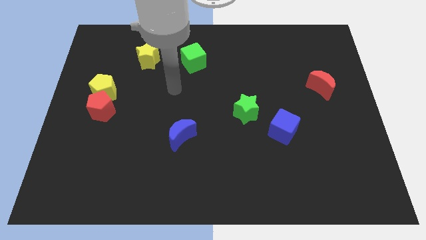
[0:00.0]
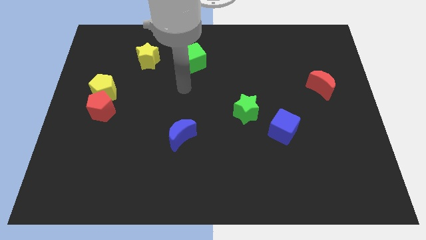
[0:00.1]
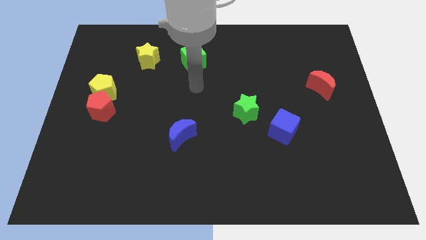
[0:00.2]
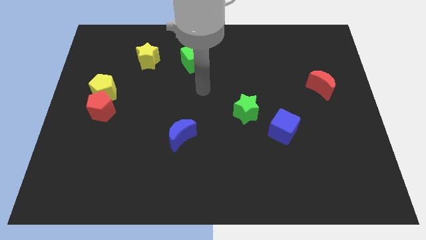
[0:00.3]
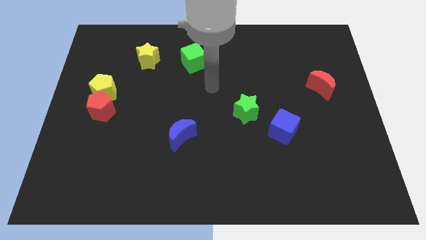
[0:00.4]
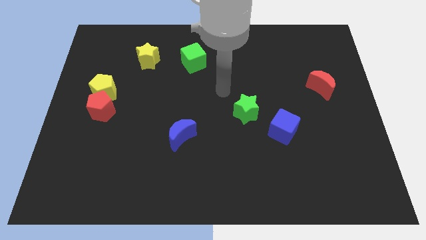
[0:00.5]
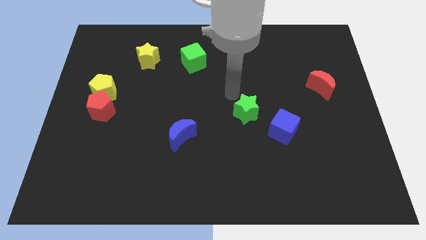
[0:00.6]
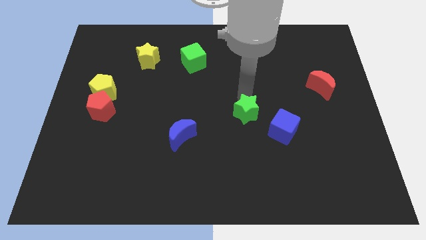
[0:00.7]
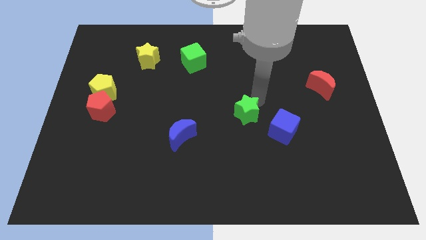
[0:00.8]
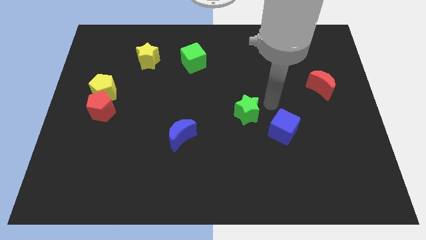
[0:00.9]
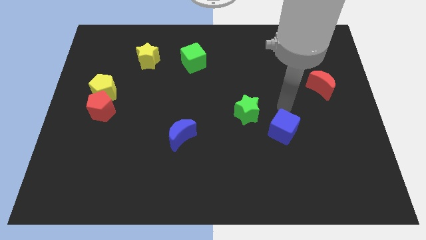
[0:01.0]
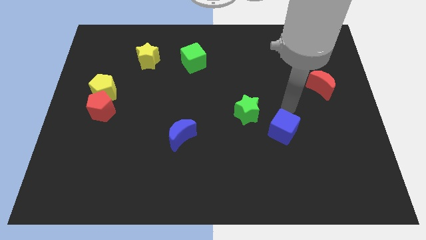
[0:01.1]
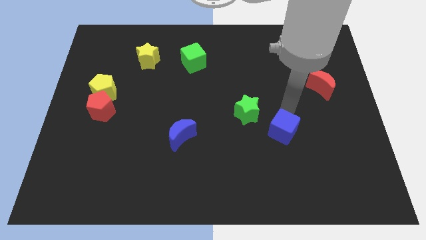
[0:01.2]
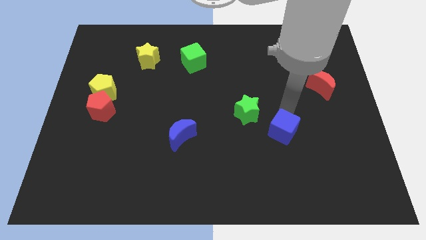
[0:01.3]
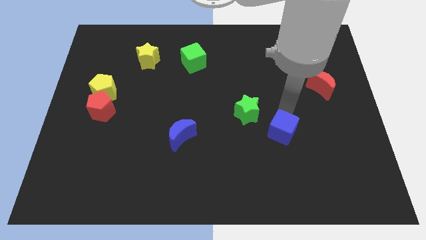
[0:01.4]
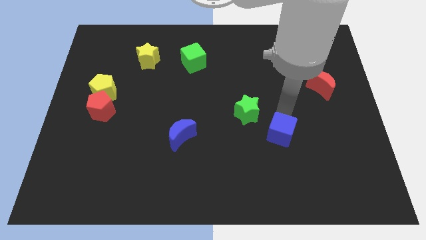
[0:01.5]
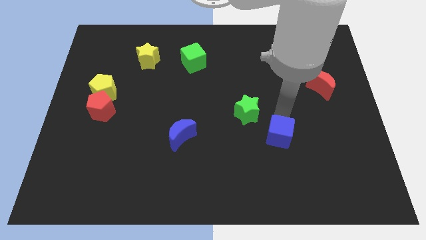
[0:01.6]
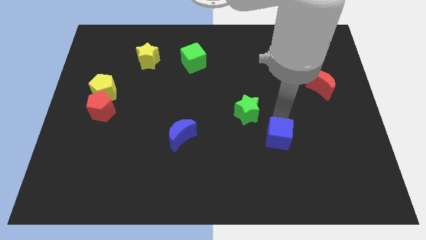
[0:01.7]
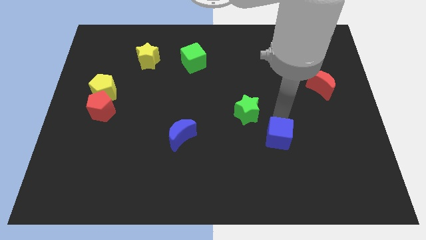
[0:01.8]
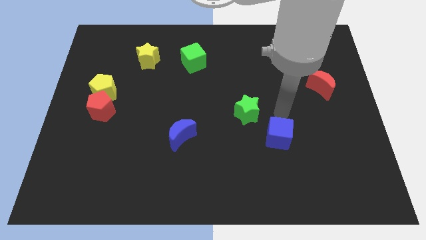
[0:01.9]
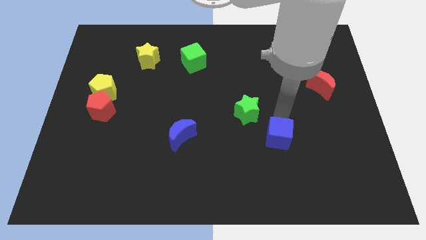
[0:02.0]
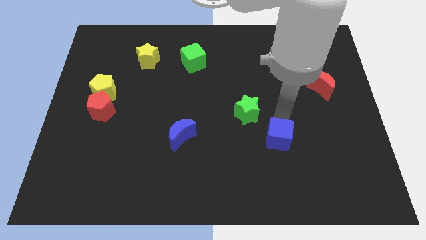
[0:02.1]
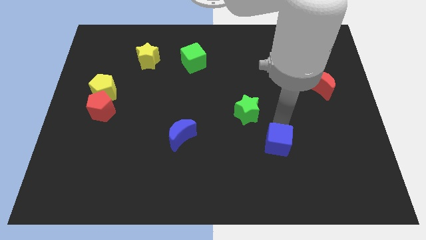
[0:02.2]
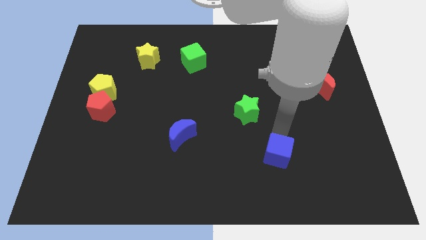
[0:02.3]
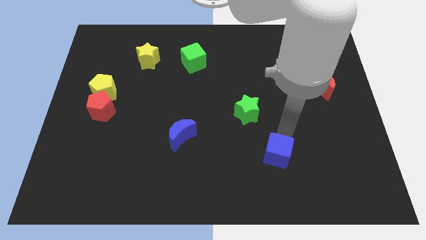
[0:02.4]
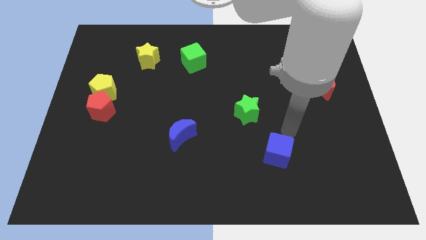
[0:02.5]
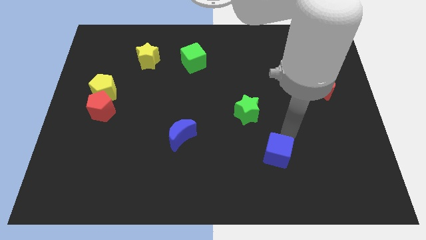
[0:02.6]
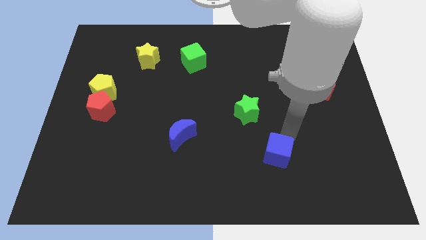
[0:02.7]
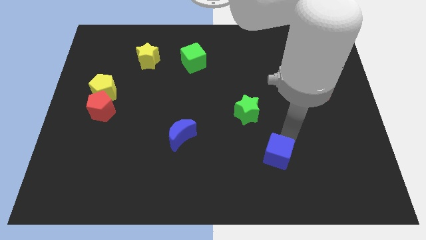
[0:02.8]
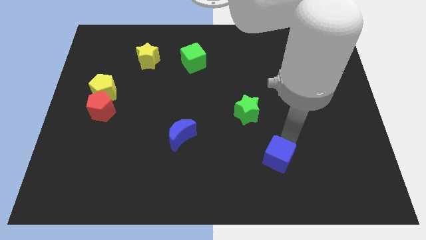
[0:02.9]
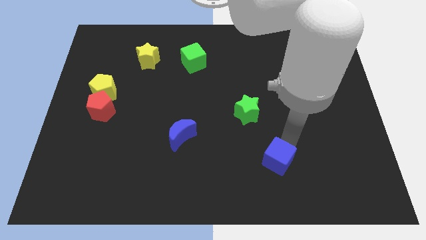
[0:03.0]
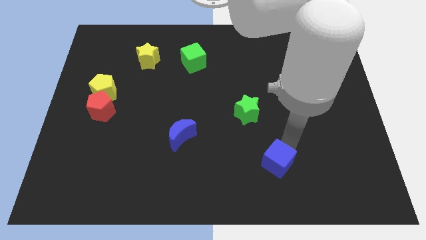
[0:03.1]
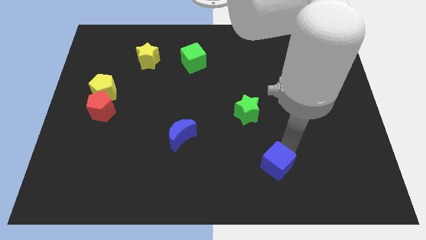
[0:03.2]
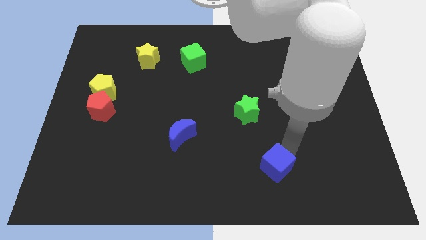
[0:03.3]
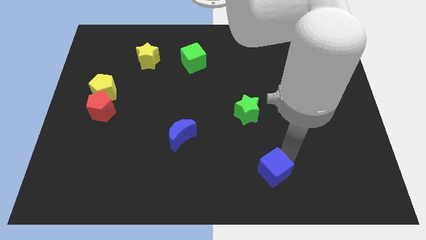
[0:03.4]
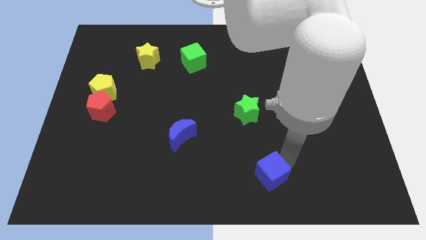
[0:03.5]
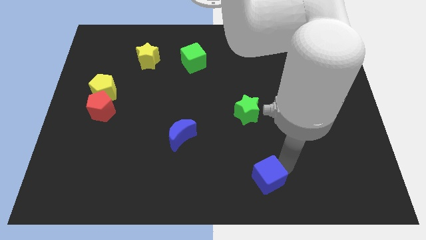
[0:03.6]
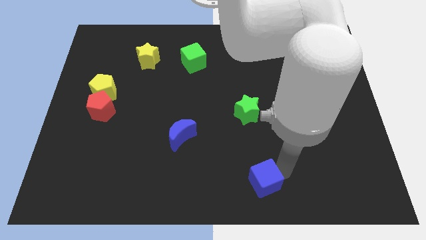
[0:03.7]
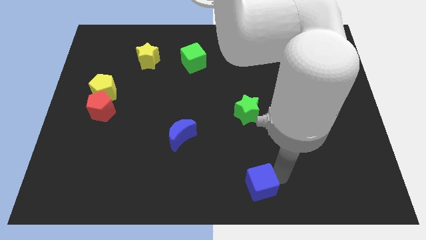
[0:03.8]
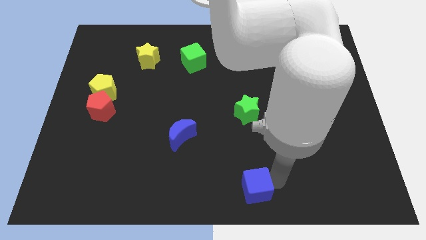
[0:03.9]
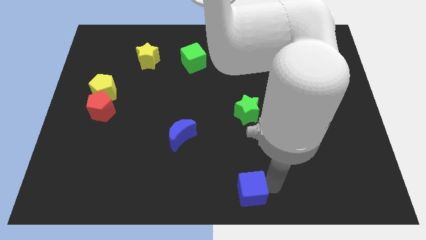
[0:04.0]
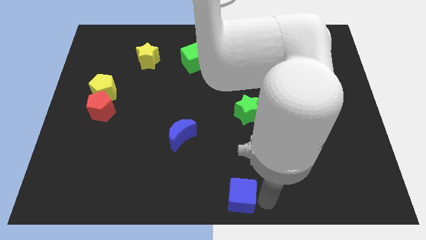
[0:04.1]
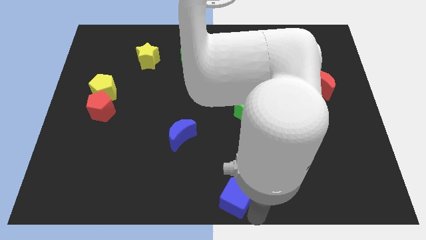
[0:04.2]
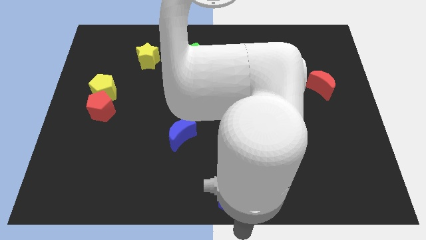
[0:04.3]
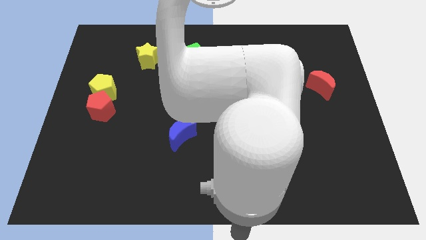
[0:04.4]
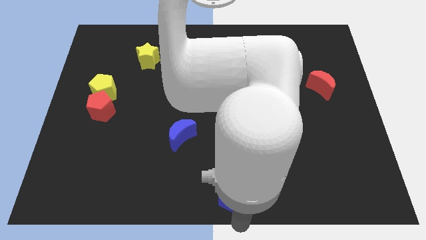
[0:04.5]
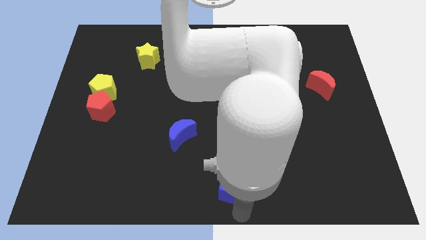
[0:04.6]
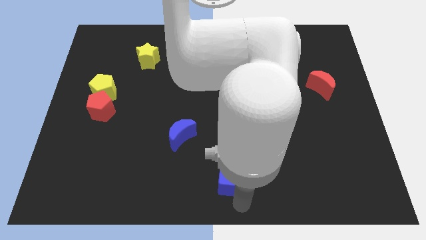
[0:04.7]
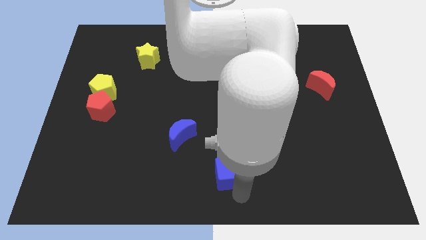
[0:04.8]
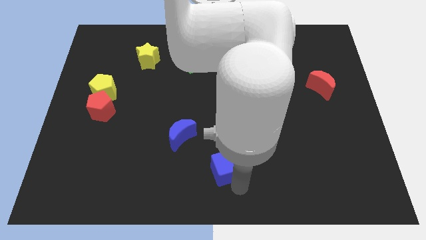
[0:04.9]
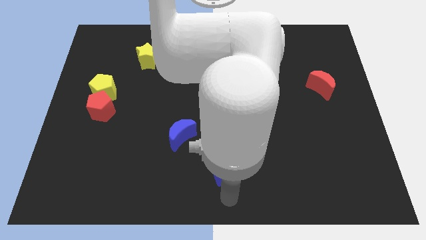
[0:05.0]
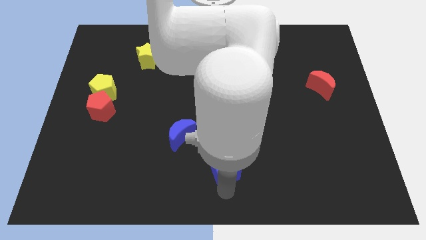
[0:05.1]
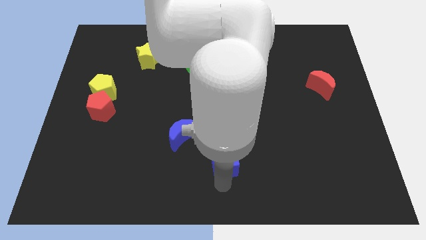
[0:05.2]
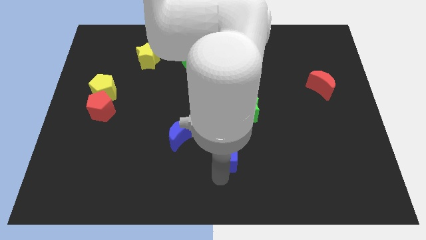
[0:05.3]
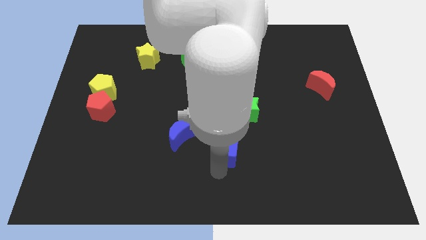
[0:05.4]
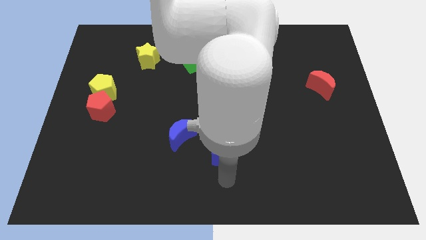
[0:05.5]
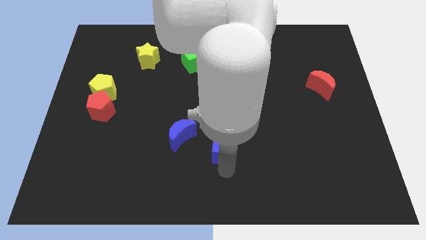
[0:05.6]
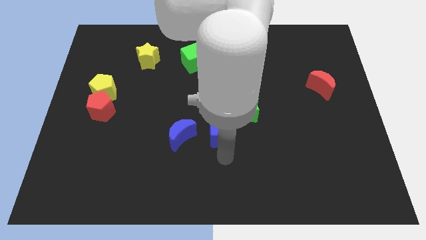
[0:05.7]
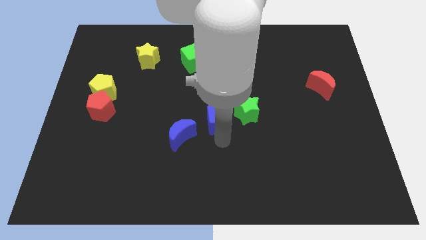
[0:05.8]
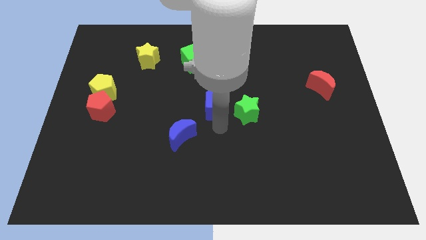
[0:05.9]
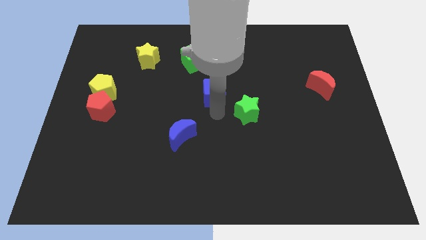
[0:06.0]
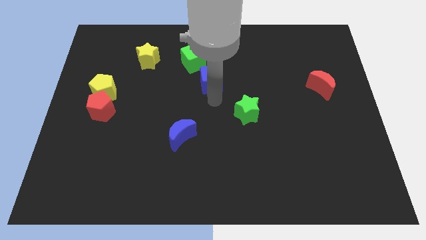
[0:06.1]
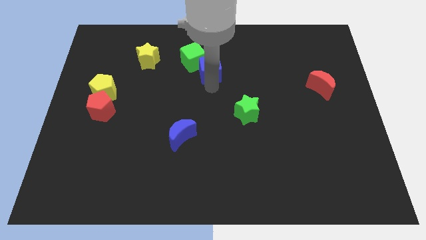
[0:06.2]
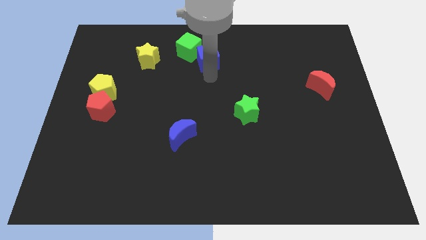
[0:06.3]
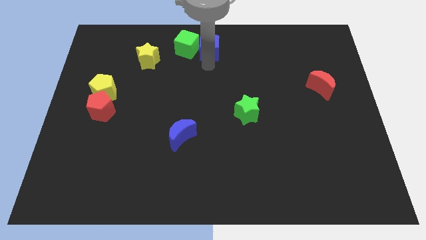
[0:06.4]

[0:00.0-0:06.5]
slide the blue cube to the top side
